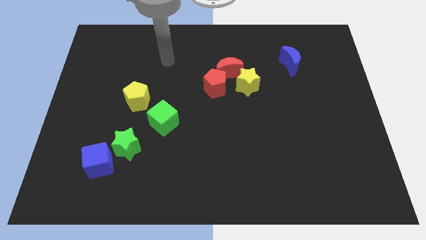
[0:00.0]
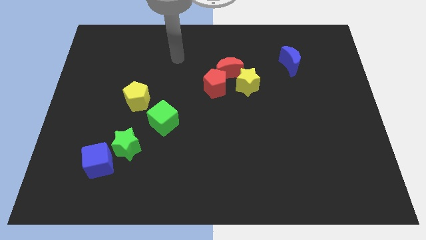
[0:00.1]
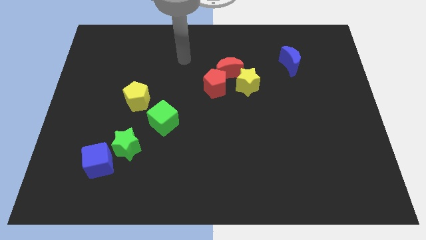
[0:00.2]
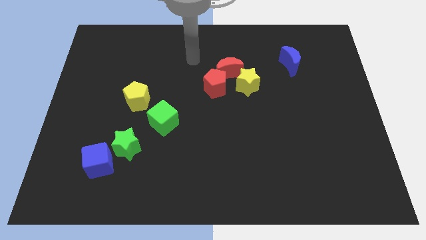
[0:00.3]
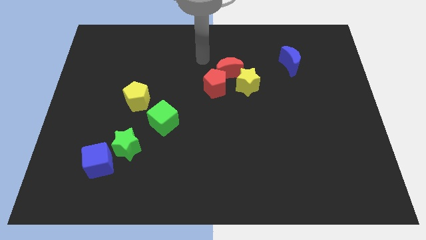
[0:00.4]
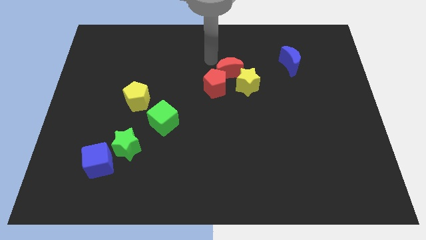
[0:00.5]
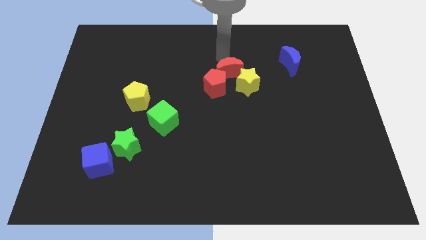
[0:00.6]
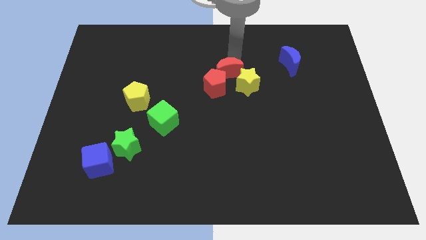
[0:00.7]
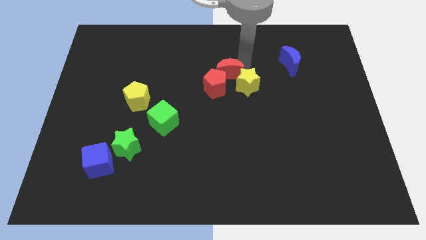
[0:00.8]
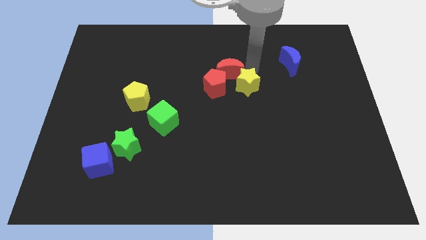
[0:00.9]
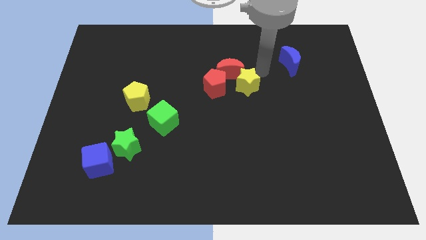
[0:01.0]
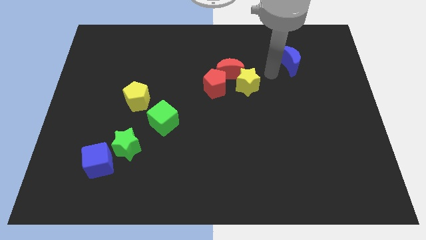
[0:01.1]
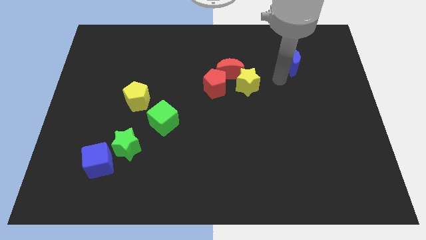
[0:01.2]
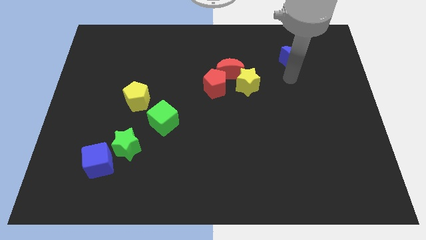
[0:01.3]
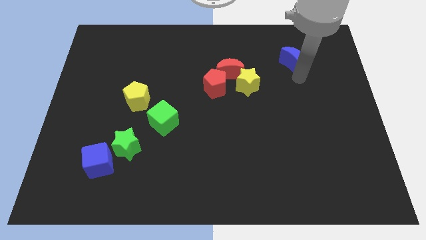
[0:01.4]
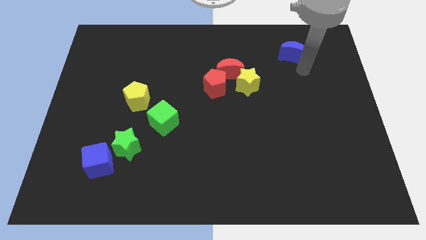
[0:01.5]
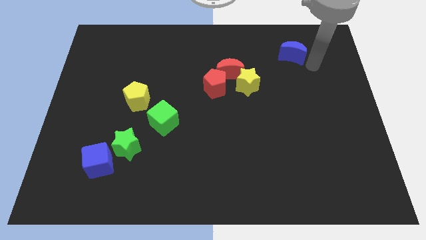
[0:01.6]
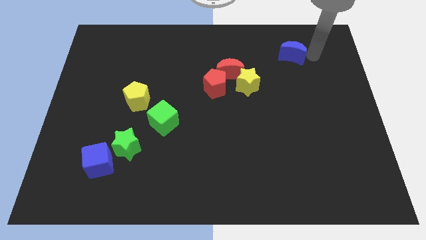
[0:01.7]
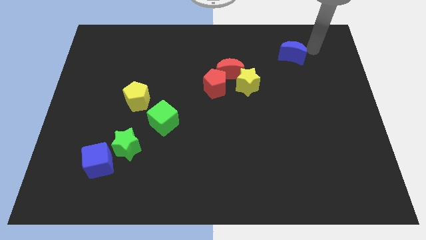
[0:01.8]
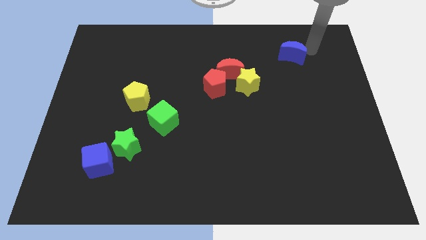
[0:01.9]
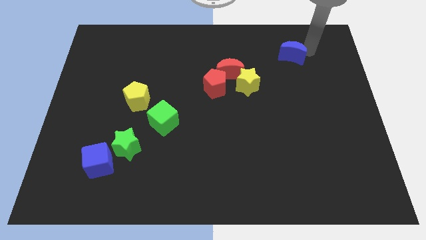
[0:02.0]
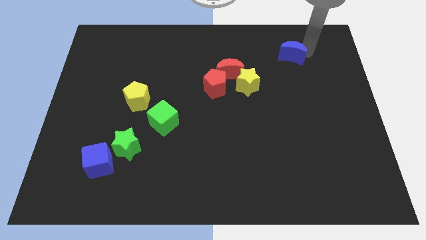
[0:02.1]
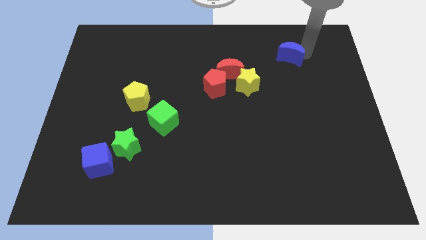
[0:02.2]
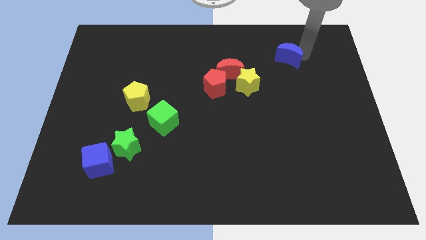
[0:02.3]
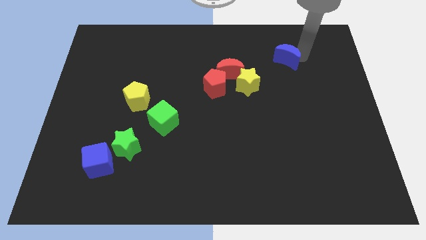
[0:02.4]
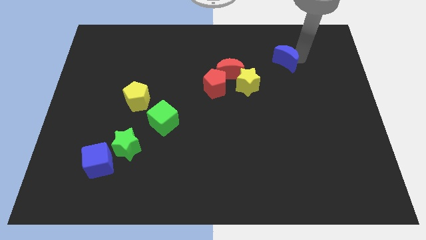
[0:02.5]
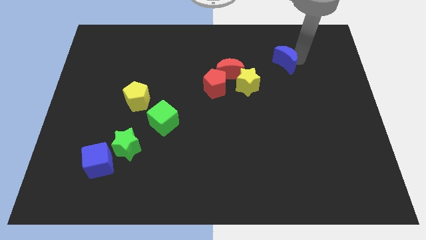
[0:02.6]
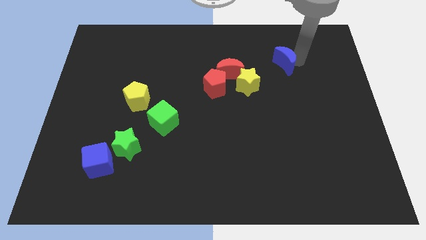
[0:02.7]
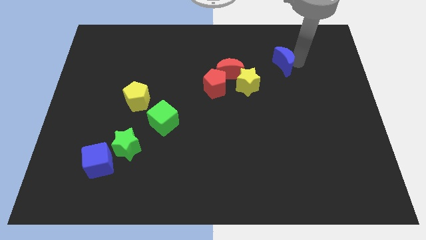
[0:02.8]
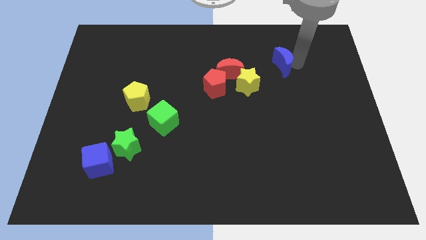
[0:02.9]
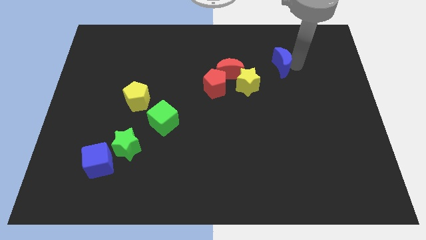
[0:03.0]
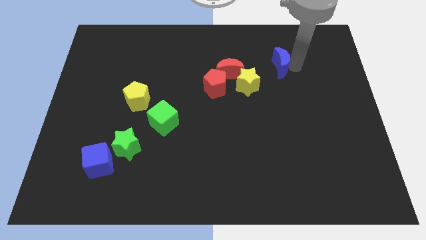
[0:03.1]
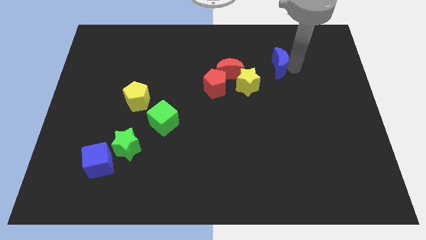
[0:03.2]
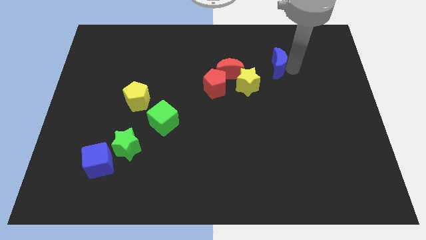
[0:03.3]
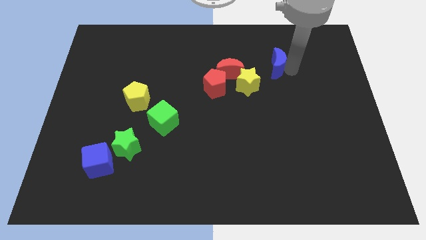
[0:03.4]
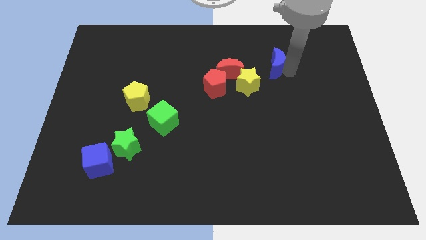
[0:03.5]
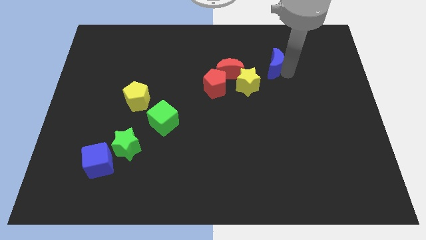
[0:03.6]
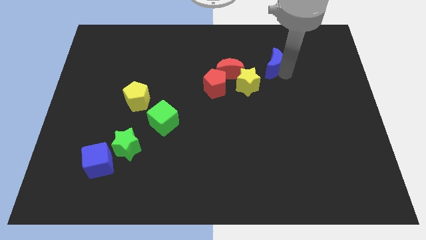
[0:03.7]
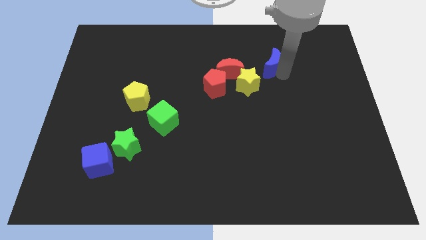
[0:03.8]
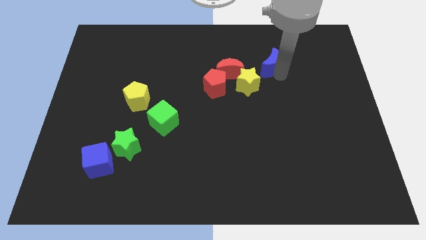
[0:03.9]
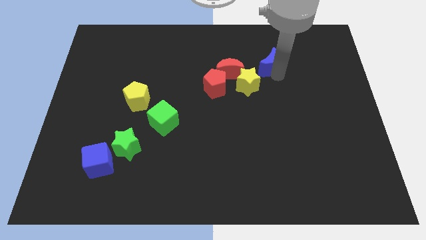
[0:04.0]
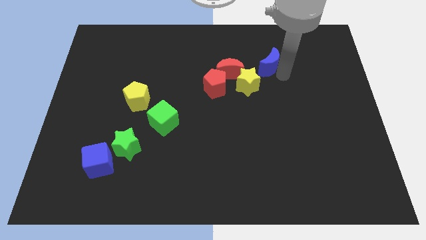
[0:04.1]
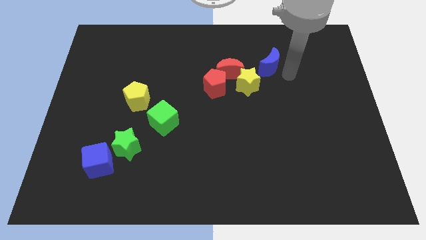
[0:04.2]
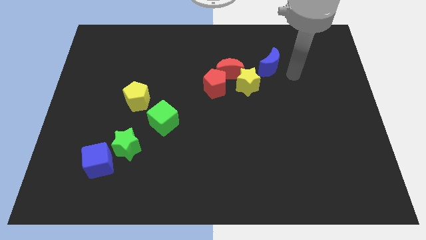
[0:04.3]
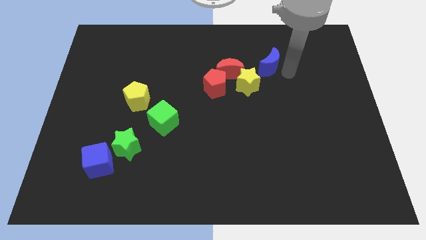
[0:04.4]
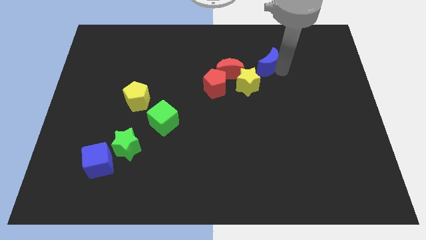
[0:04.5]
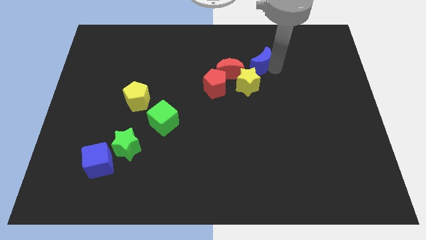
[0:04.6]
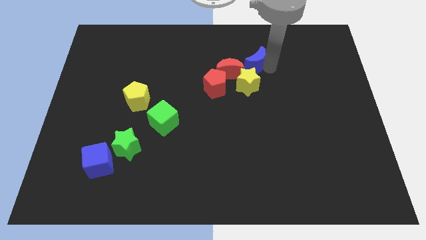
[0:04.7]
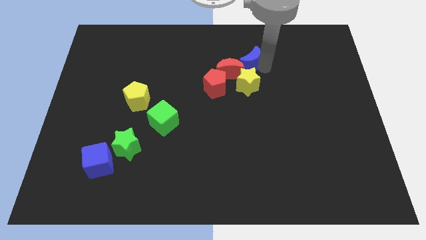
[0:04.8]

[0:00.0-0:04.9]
push the blue moon diagonally up and to the right of the red pentagon

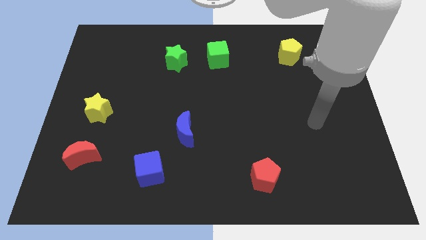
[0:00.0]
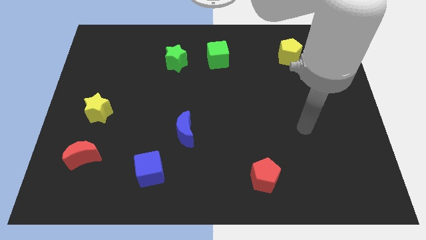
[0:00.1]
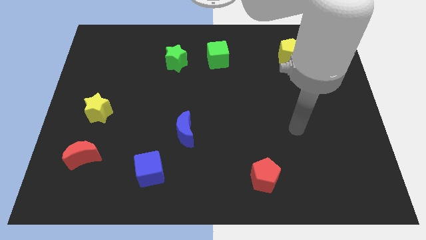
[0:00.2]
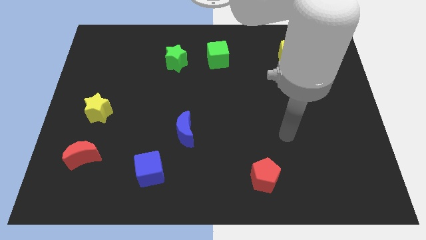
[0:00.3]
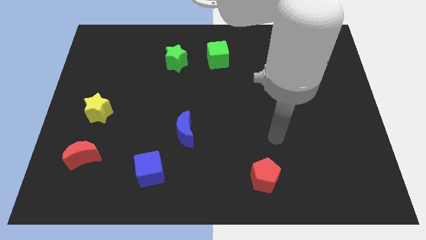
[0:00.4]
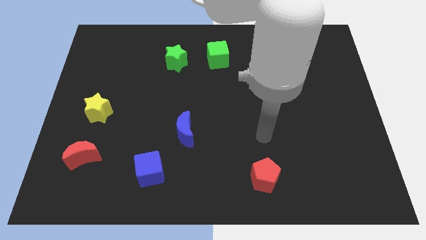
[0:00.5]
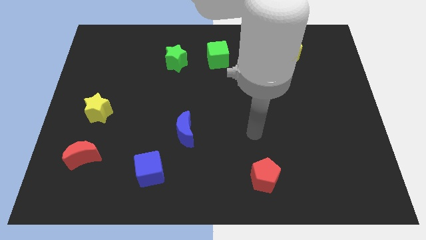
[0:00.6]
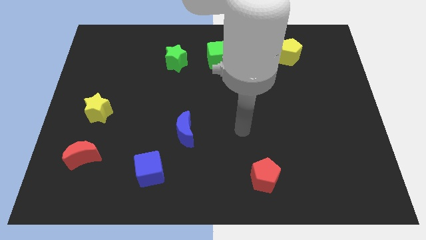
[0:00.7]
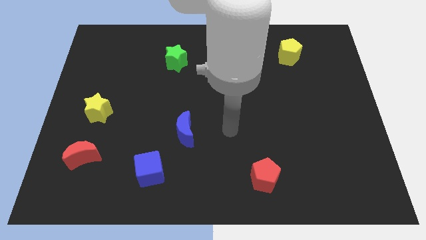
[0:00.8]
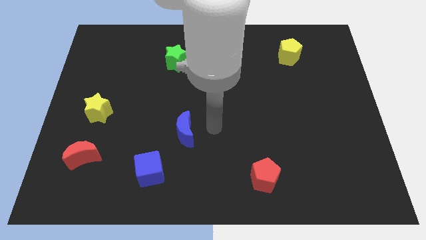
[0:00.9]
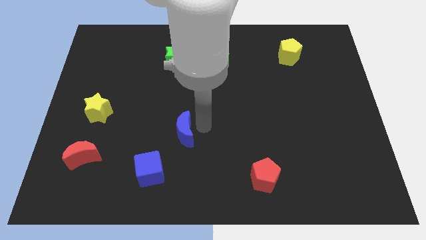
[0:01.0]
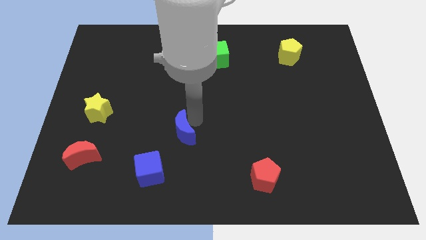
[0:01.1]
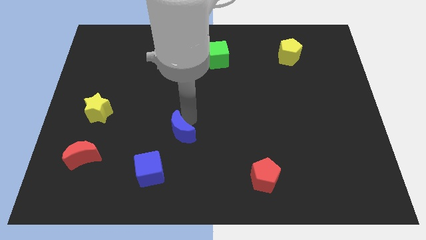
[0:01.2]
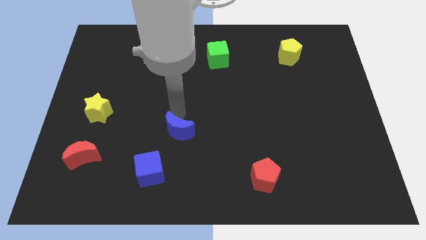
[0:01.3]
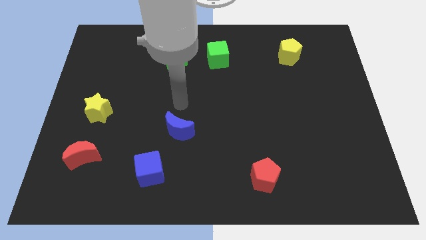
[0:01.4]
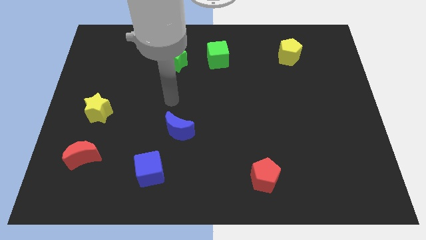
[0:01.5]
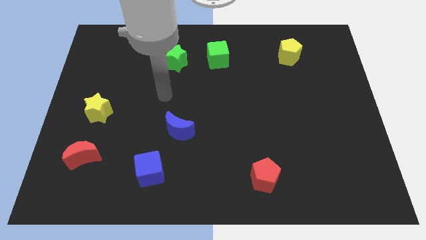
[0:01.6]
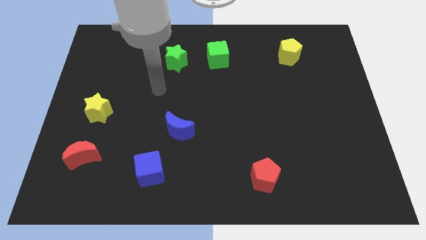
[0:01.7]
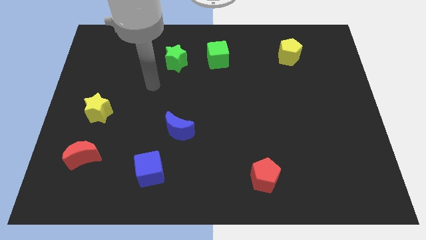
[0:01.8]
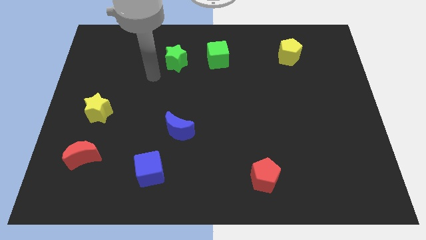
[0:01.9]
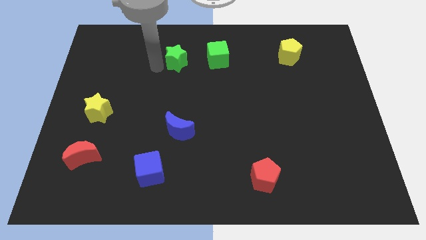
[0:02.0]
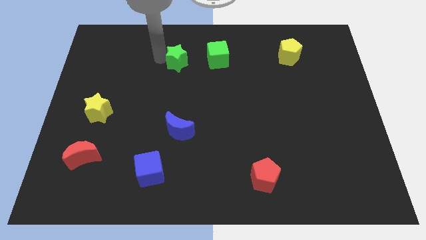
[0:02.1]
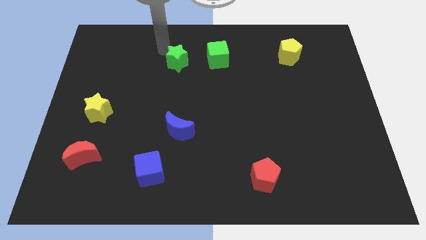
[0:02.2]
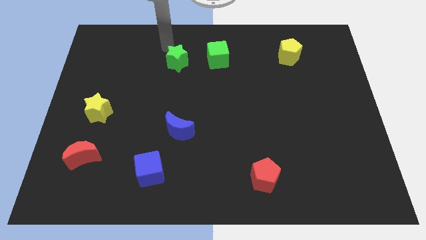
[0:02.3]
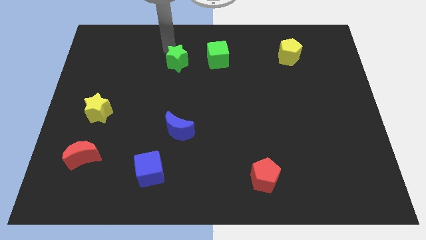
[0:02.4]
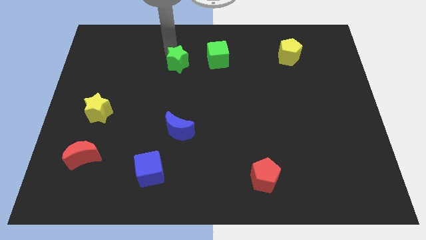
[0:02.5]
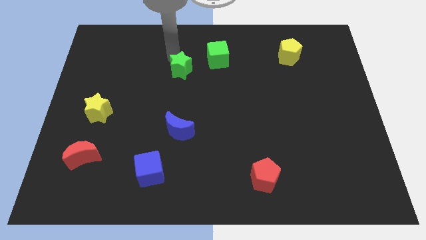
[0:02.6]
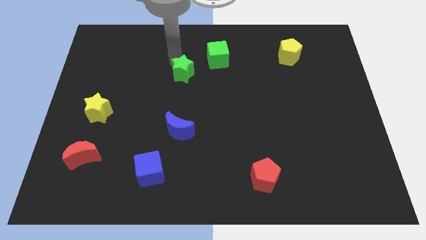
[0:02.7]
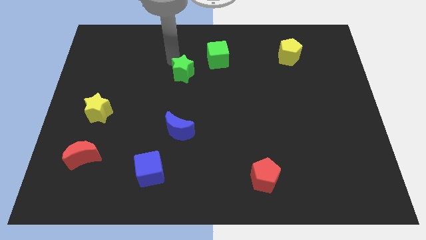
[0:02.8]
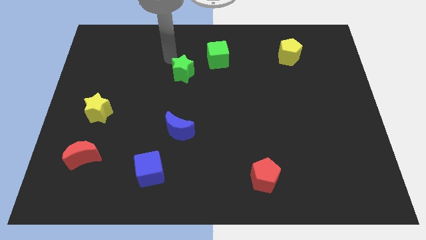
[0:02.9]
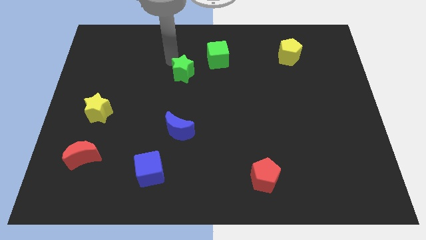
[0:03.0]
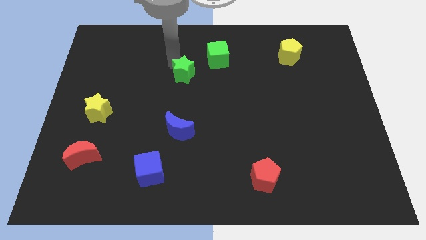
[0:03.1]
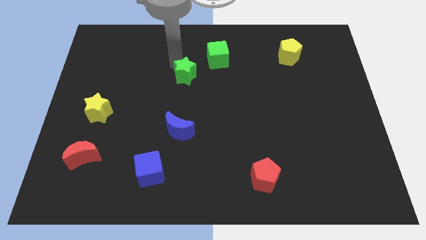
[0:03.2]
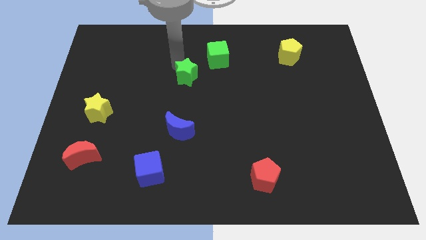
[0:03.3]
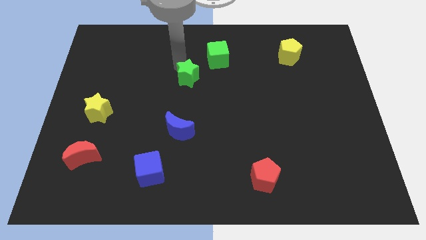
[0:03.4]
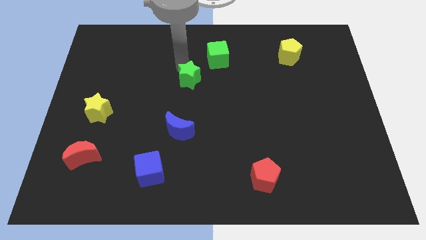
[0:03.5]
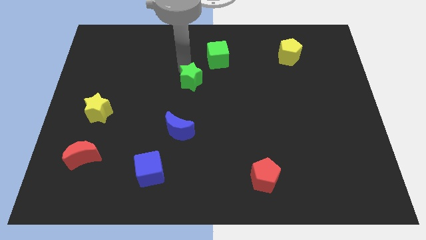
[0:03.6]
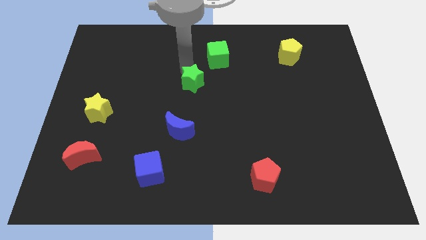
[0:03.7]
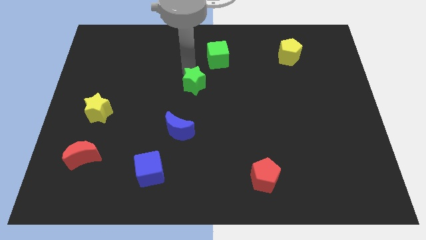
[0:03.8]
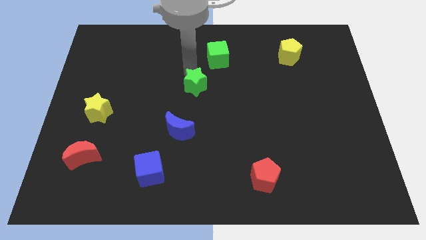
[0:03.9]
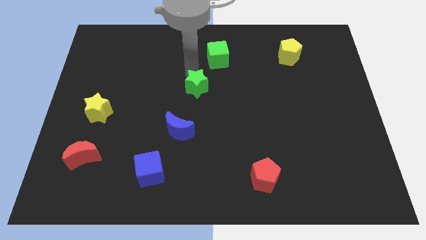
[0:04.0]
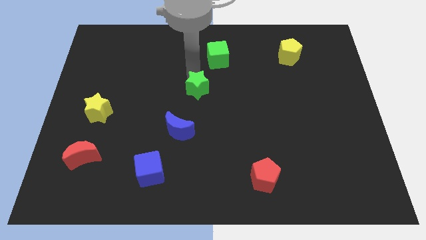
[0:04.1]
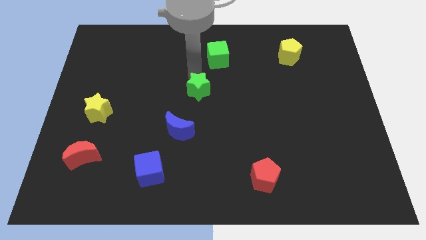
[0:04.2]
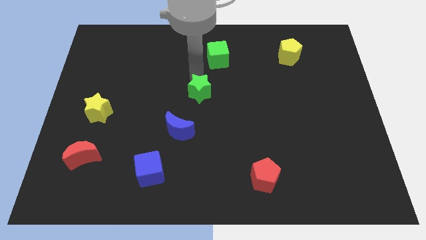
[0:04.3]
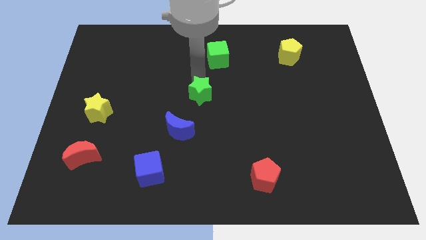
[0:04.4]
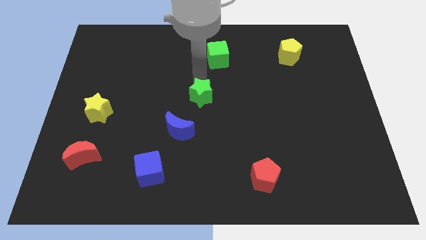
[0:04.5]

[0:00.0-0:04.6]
put the green star to the top right side of the blue moon
